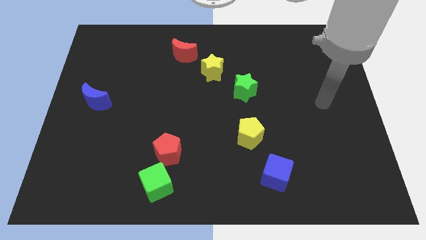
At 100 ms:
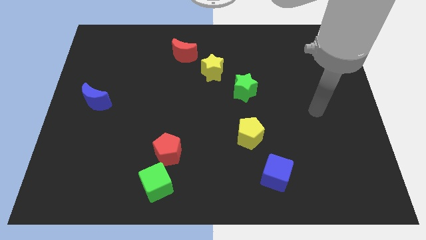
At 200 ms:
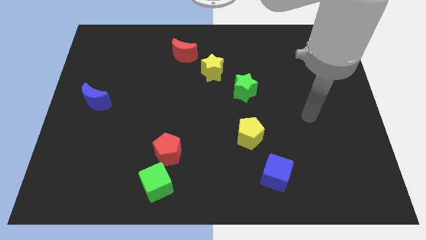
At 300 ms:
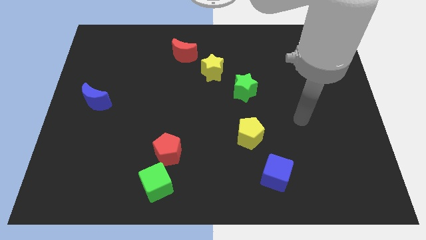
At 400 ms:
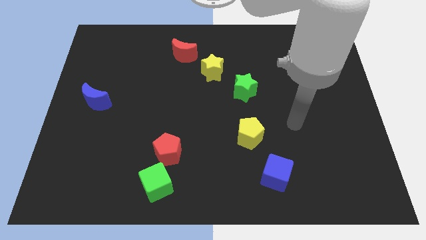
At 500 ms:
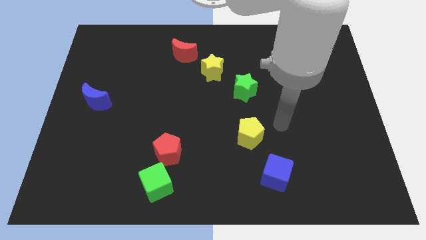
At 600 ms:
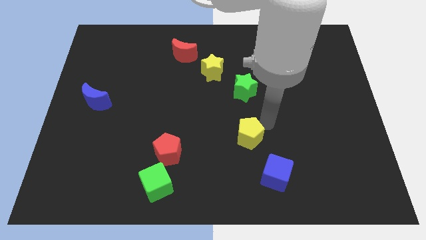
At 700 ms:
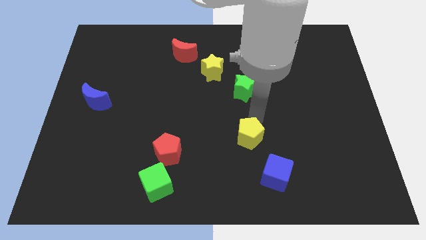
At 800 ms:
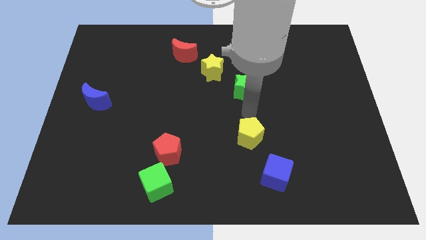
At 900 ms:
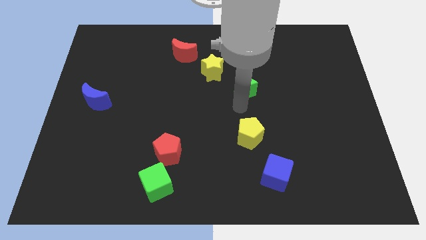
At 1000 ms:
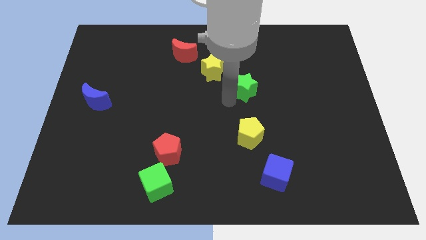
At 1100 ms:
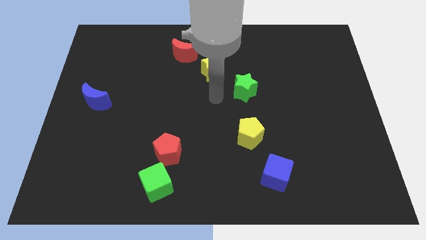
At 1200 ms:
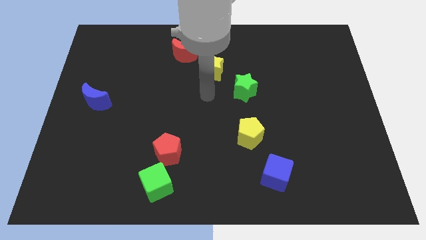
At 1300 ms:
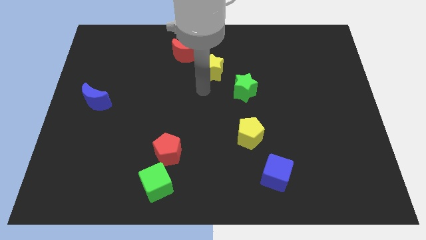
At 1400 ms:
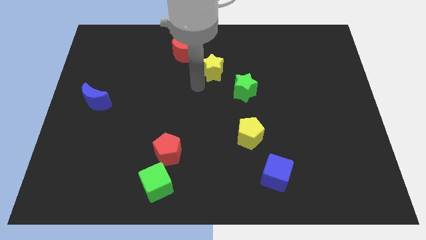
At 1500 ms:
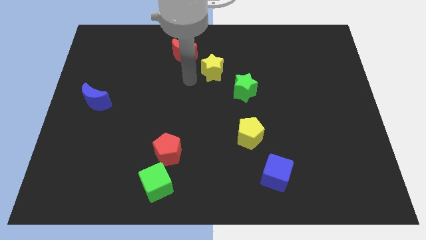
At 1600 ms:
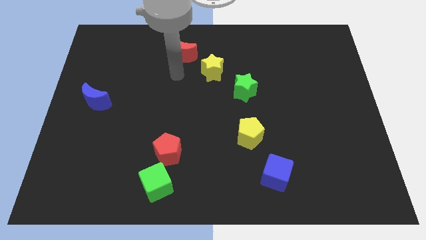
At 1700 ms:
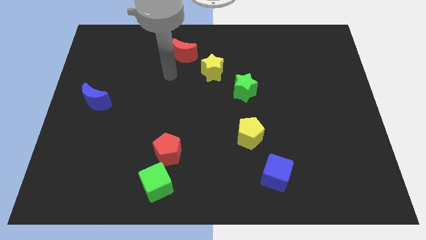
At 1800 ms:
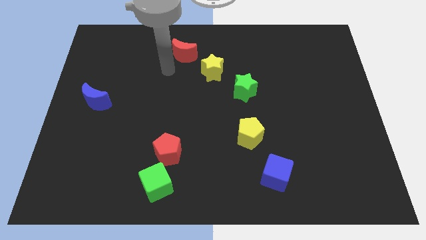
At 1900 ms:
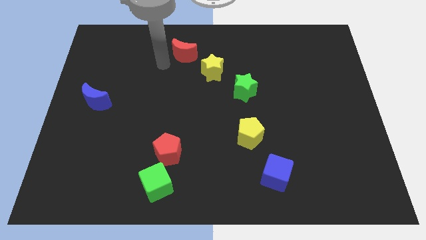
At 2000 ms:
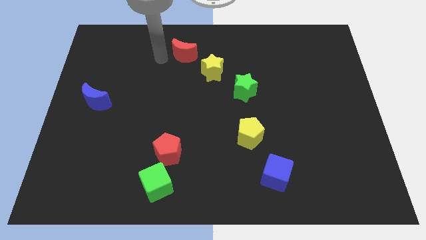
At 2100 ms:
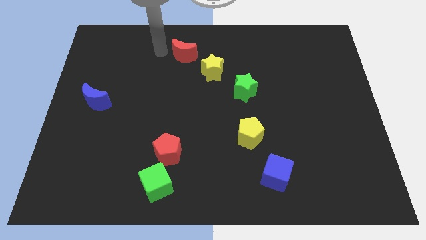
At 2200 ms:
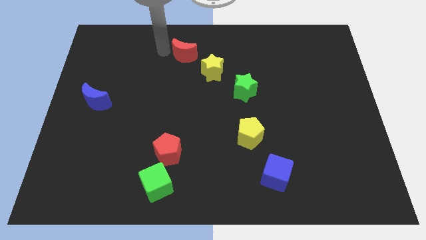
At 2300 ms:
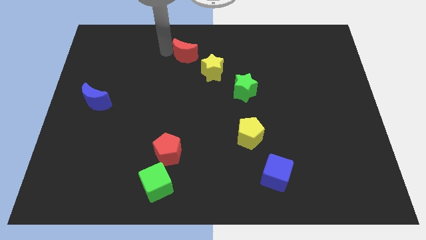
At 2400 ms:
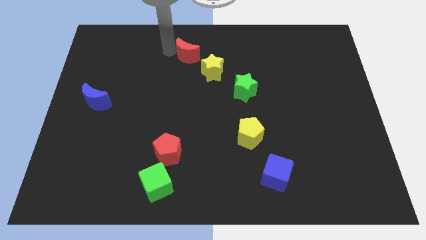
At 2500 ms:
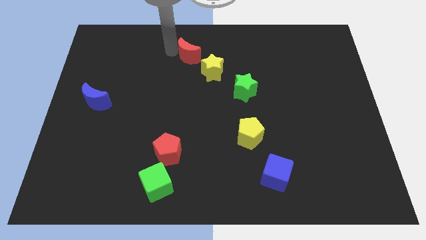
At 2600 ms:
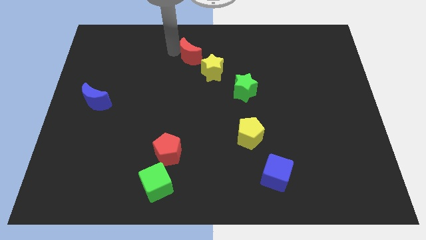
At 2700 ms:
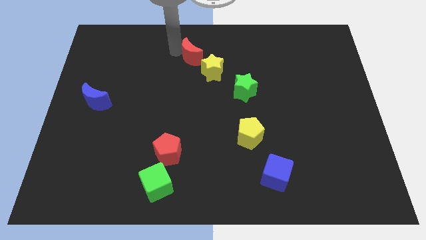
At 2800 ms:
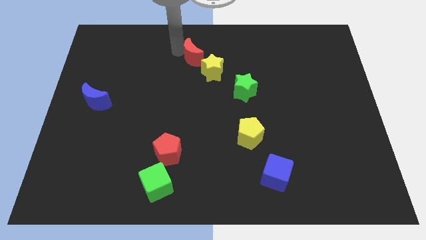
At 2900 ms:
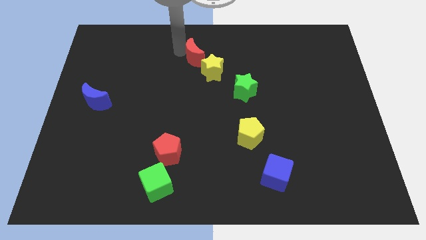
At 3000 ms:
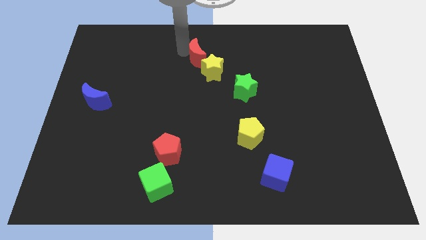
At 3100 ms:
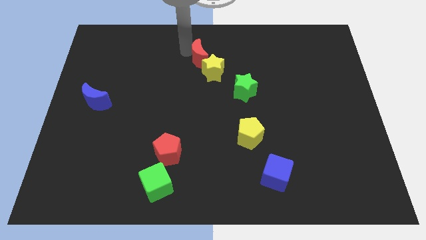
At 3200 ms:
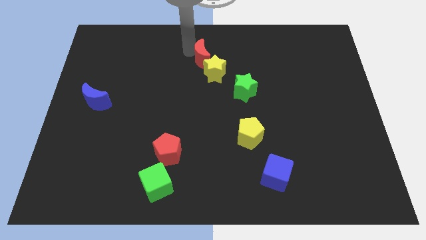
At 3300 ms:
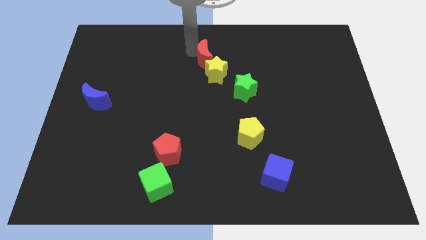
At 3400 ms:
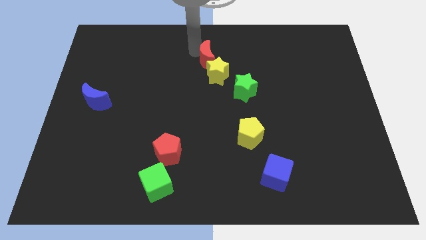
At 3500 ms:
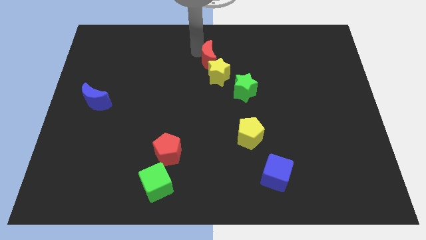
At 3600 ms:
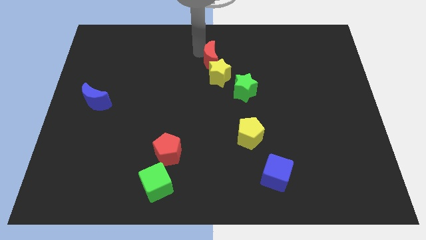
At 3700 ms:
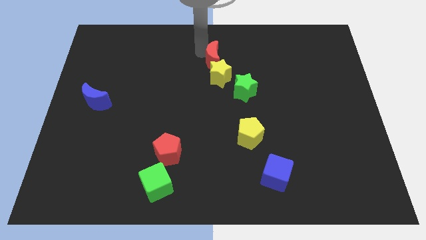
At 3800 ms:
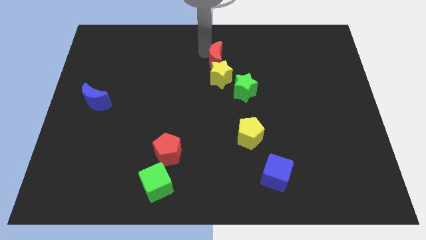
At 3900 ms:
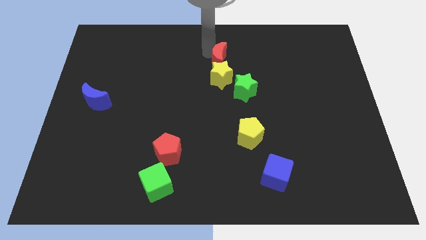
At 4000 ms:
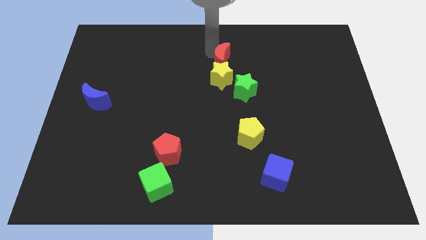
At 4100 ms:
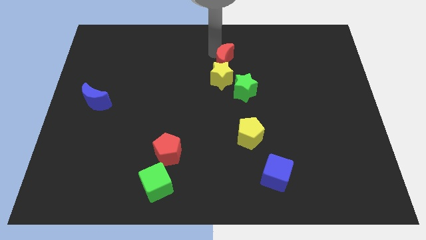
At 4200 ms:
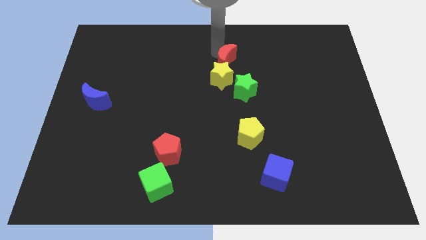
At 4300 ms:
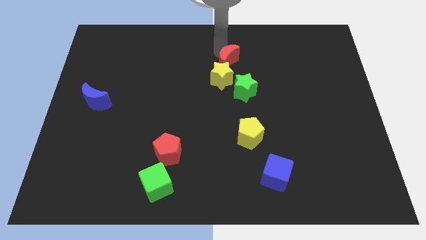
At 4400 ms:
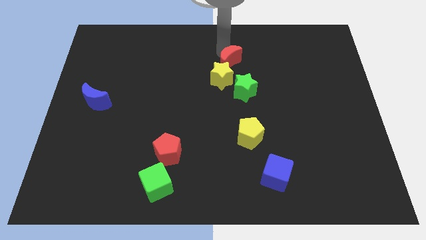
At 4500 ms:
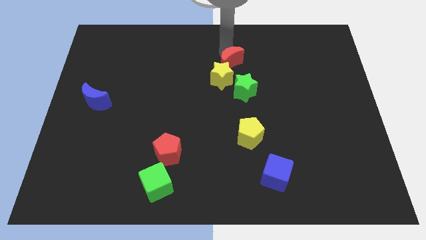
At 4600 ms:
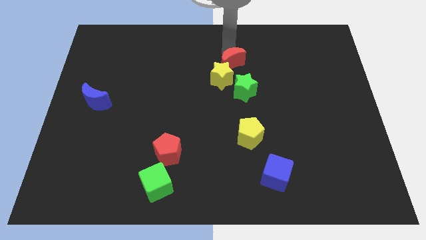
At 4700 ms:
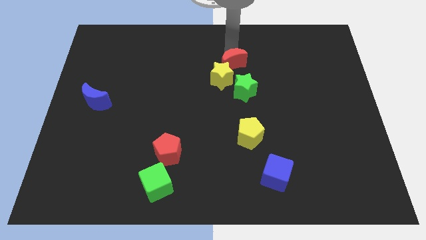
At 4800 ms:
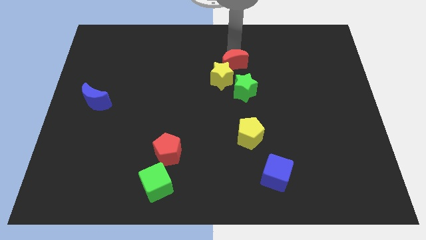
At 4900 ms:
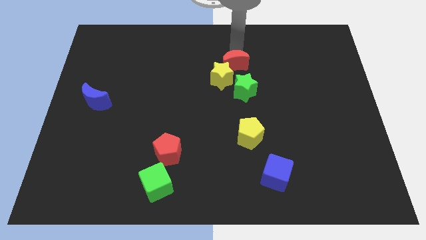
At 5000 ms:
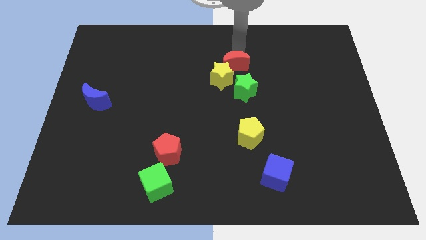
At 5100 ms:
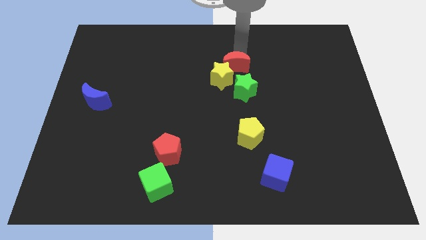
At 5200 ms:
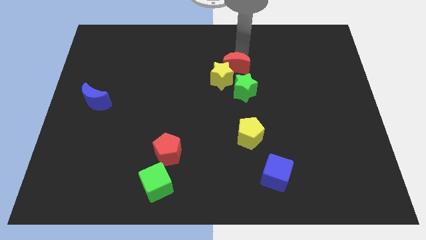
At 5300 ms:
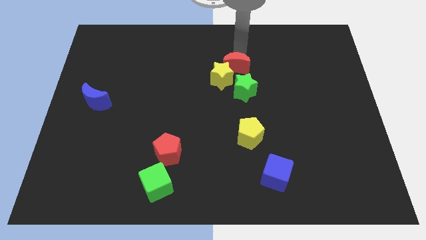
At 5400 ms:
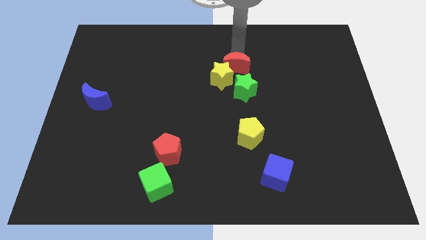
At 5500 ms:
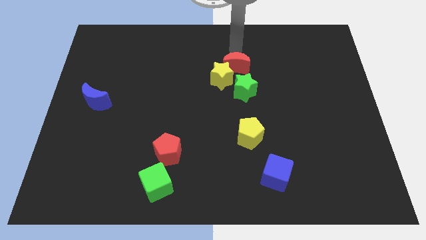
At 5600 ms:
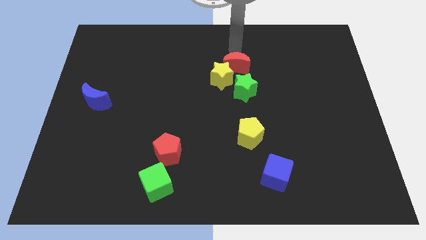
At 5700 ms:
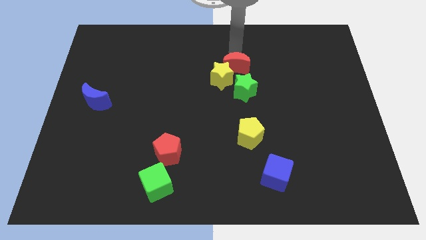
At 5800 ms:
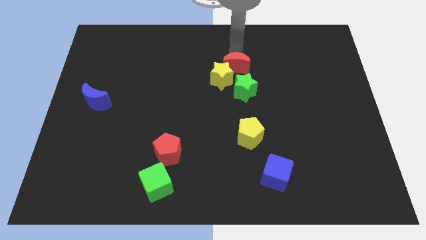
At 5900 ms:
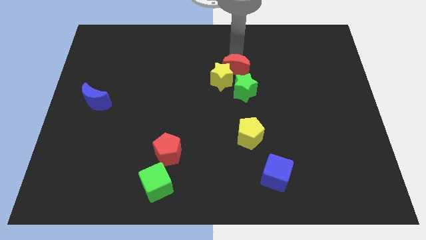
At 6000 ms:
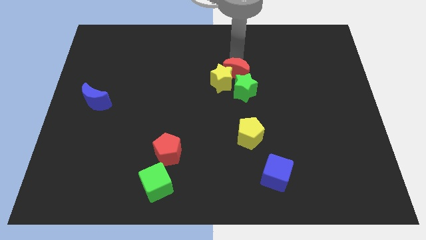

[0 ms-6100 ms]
push the red moon towards the green star

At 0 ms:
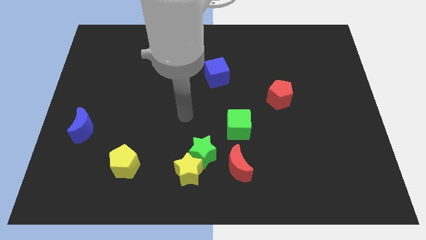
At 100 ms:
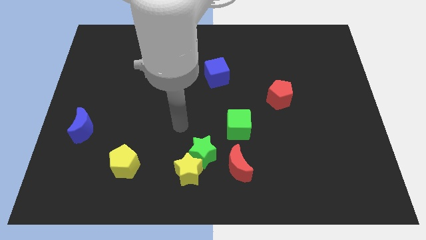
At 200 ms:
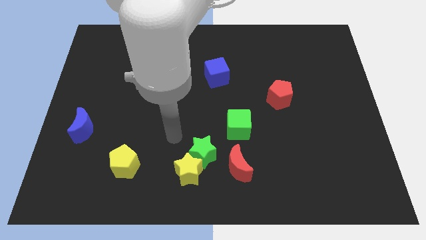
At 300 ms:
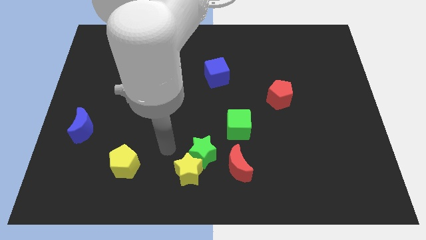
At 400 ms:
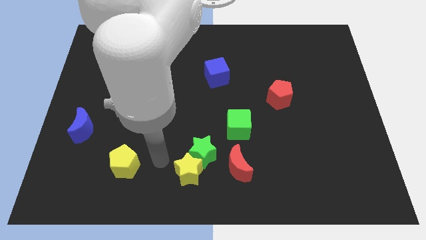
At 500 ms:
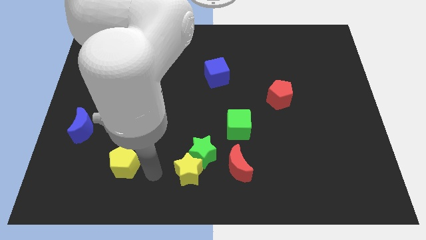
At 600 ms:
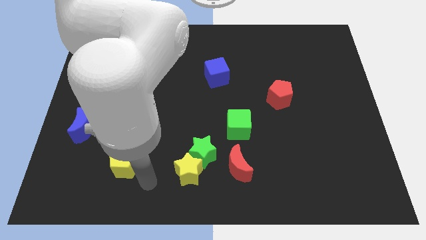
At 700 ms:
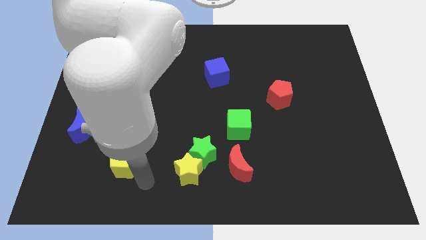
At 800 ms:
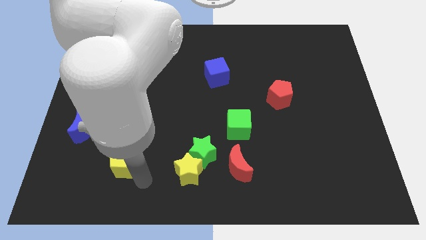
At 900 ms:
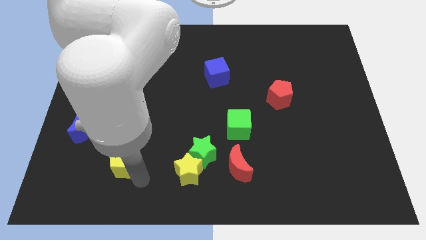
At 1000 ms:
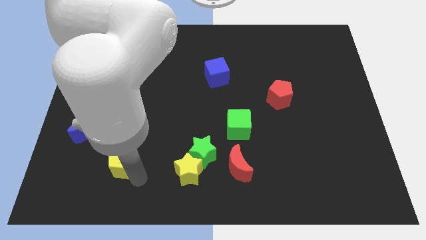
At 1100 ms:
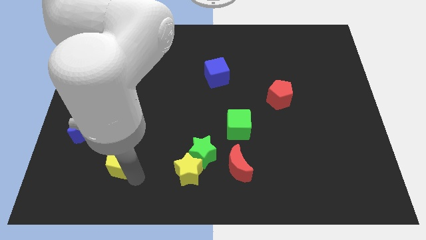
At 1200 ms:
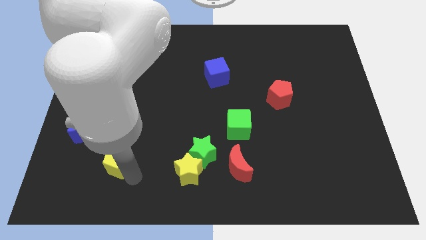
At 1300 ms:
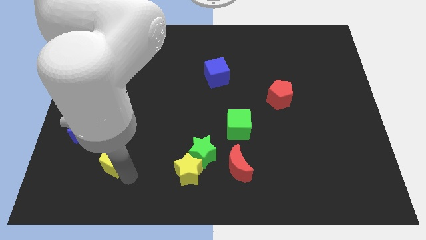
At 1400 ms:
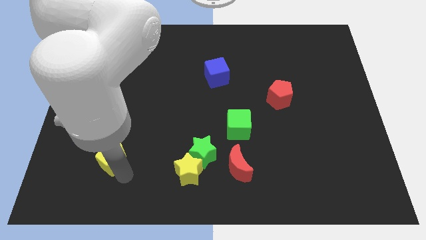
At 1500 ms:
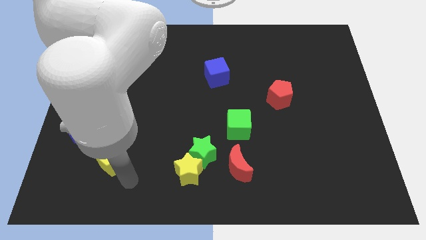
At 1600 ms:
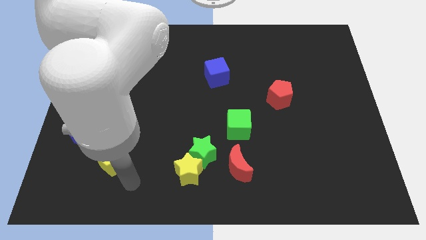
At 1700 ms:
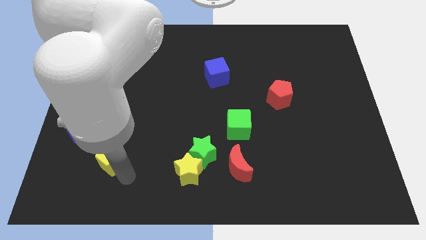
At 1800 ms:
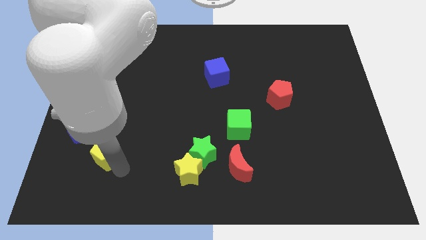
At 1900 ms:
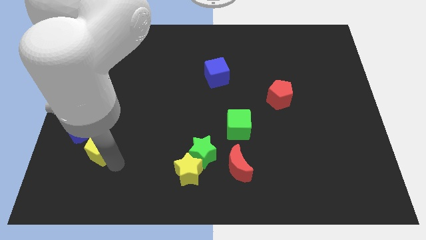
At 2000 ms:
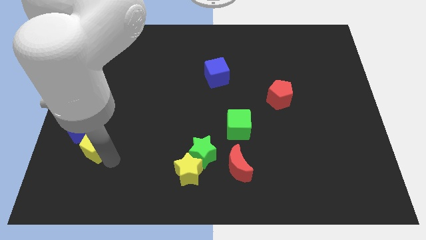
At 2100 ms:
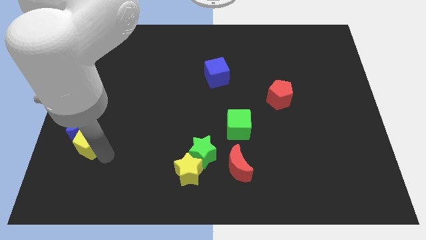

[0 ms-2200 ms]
push the yellow pentagon towards the blue moon
